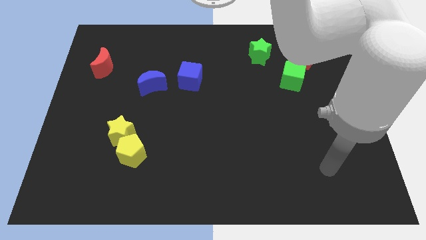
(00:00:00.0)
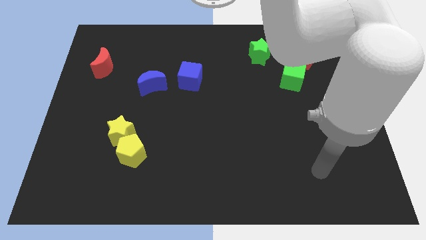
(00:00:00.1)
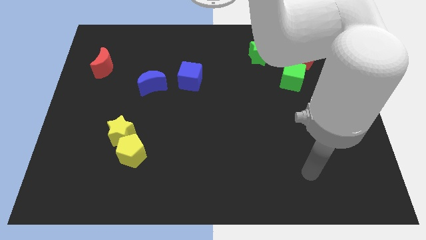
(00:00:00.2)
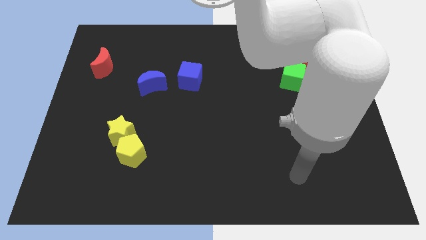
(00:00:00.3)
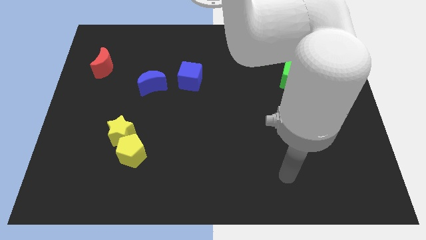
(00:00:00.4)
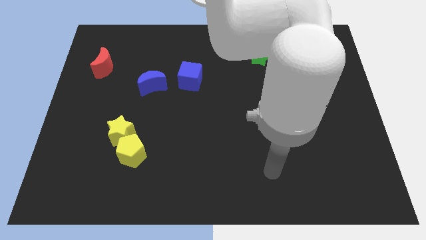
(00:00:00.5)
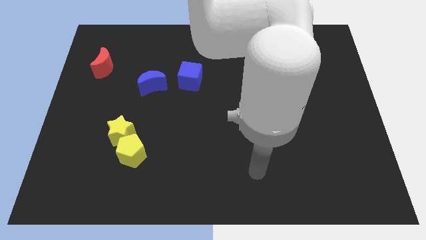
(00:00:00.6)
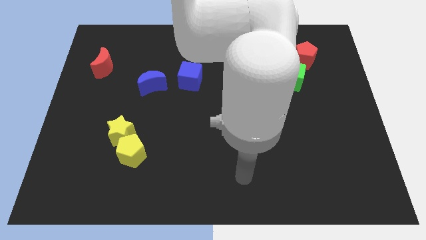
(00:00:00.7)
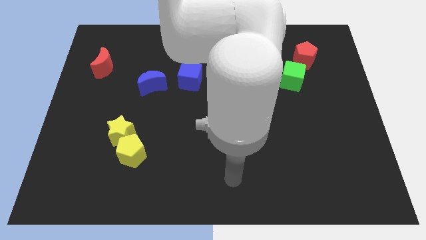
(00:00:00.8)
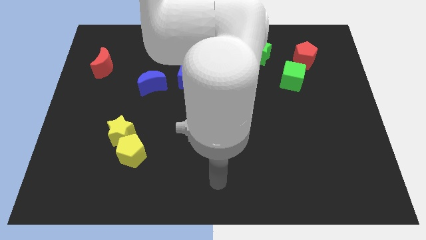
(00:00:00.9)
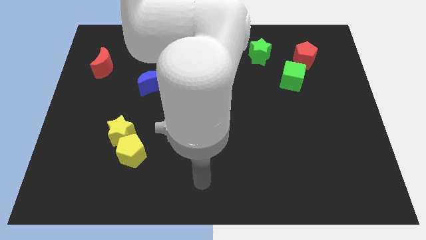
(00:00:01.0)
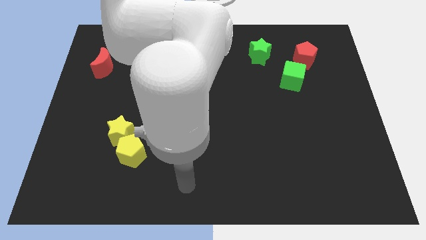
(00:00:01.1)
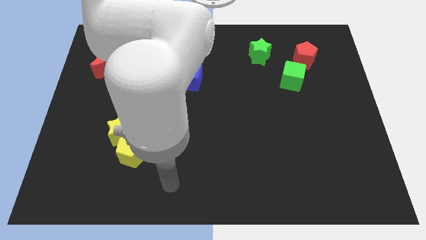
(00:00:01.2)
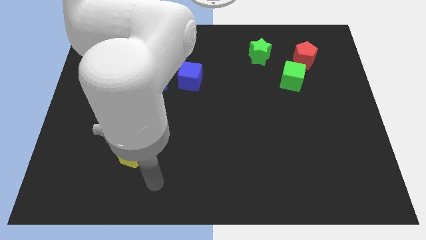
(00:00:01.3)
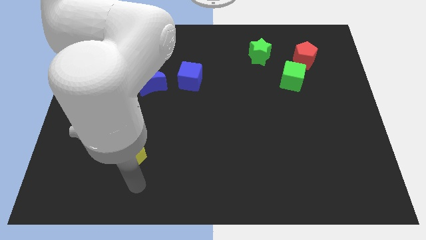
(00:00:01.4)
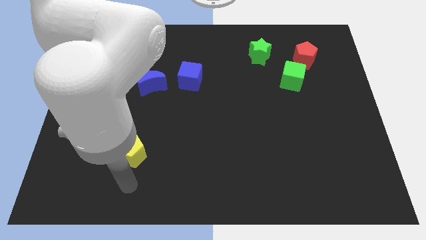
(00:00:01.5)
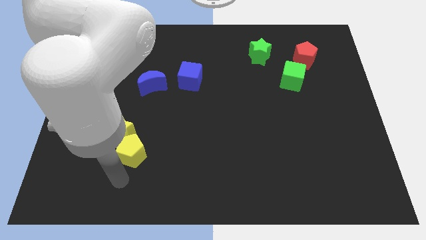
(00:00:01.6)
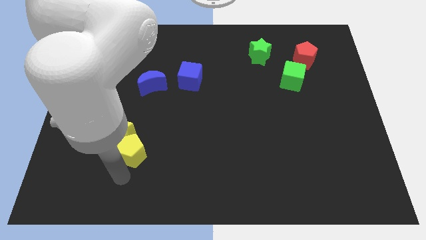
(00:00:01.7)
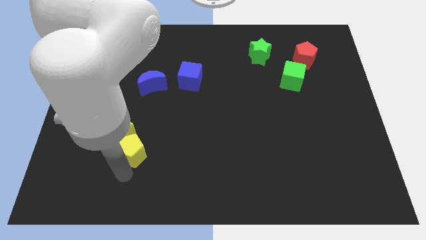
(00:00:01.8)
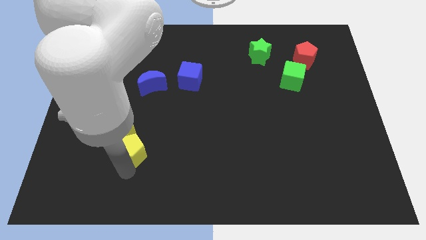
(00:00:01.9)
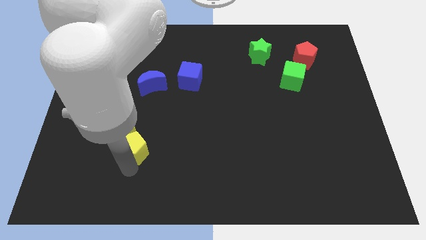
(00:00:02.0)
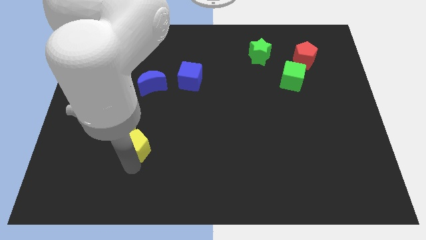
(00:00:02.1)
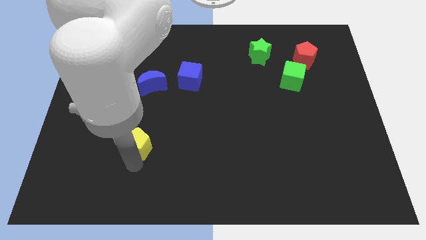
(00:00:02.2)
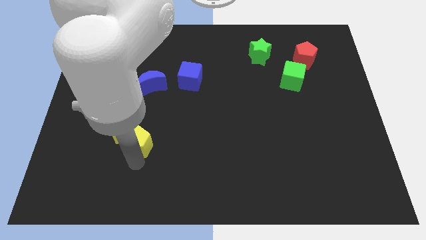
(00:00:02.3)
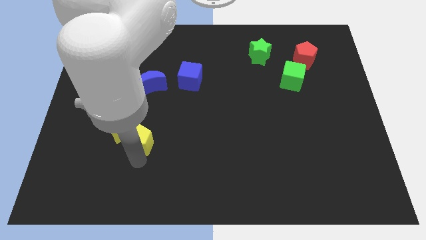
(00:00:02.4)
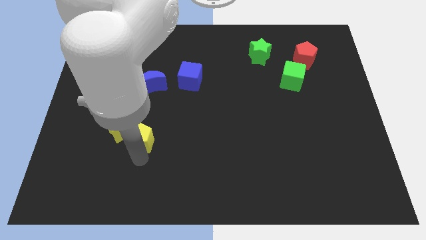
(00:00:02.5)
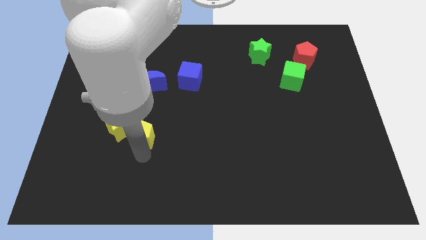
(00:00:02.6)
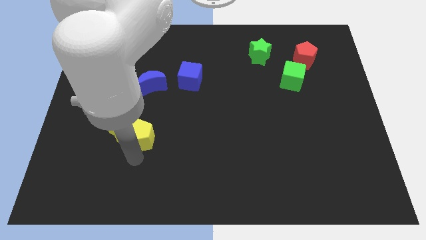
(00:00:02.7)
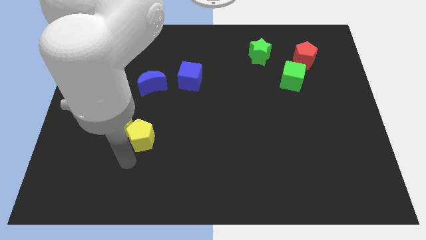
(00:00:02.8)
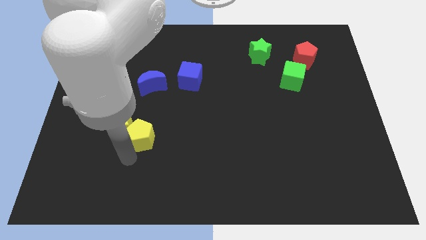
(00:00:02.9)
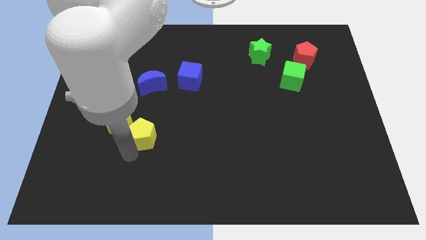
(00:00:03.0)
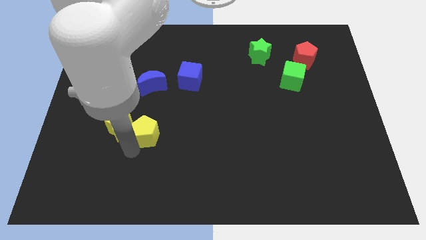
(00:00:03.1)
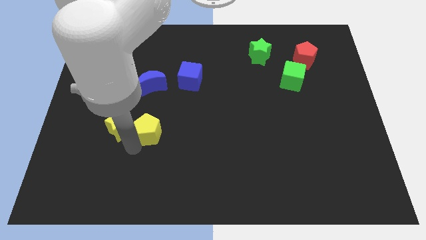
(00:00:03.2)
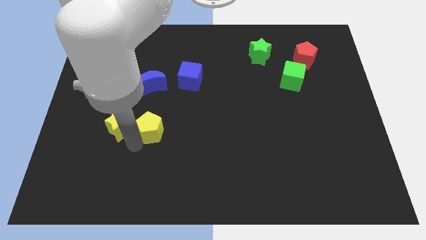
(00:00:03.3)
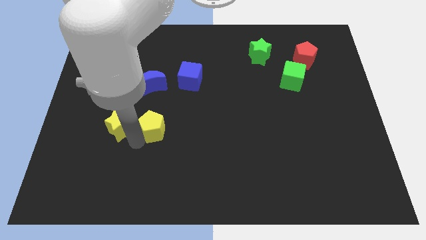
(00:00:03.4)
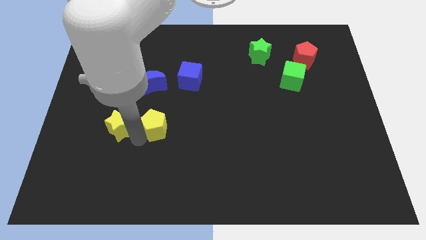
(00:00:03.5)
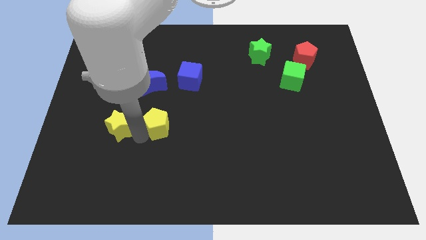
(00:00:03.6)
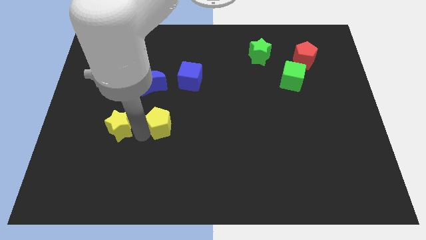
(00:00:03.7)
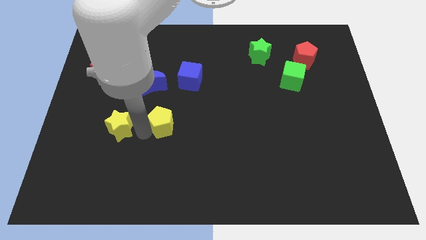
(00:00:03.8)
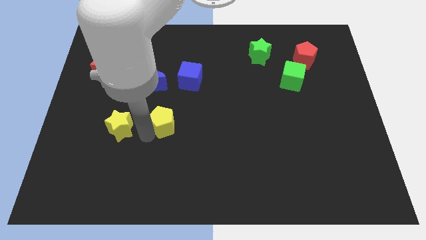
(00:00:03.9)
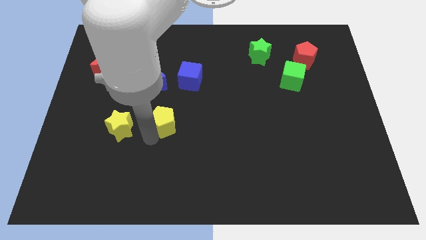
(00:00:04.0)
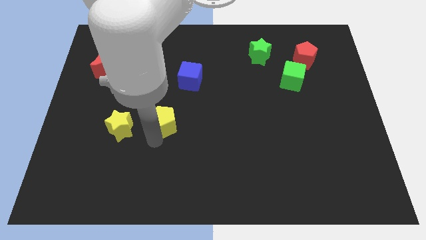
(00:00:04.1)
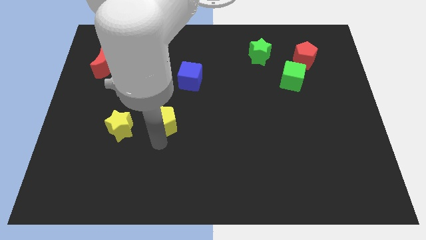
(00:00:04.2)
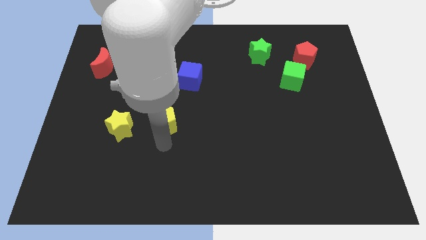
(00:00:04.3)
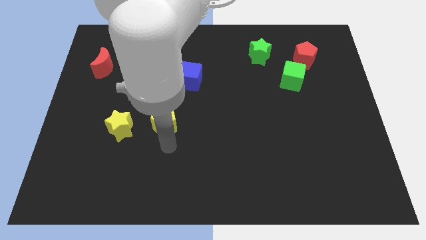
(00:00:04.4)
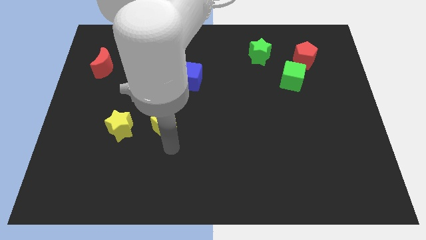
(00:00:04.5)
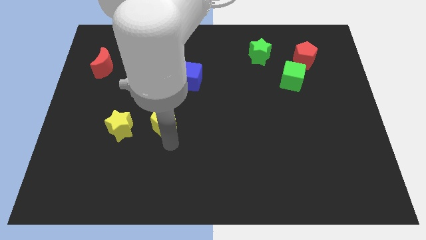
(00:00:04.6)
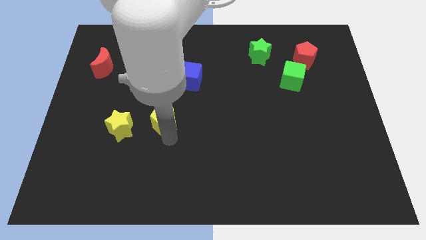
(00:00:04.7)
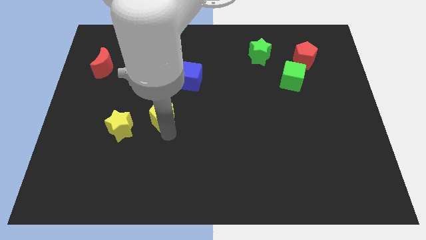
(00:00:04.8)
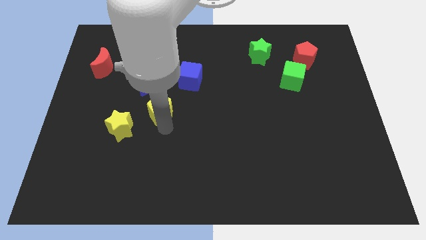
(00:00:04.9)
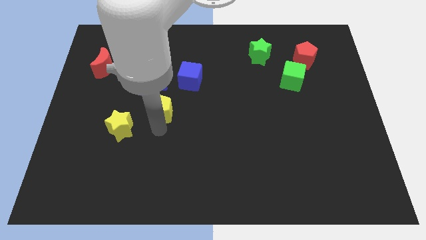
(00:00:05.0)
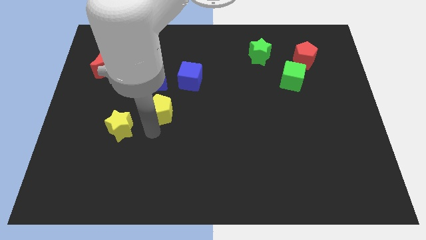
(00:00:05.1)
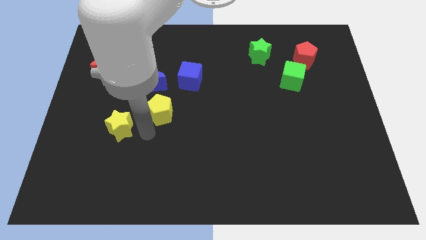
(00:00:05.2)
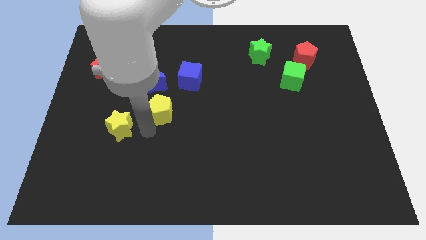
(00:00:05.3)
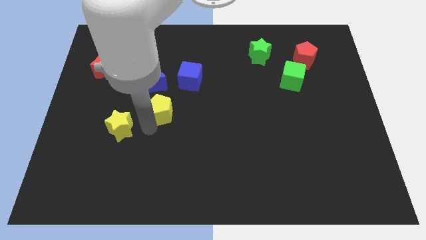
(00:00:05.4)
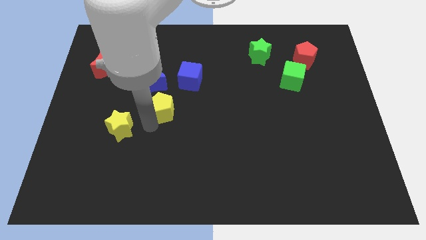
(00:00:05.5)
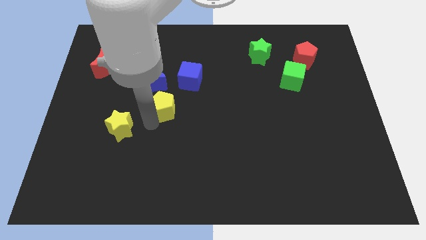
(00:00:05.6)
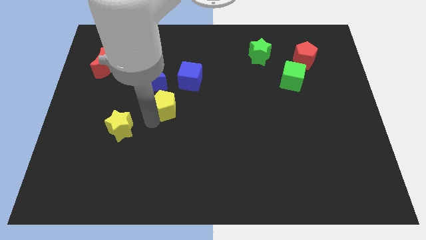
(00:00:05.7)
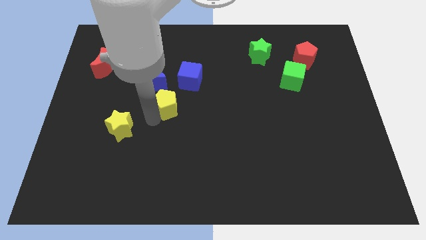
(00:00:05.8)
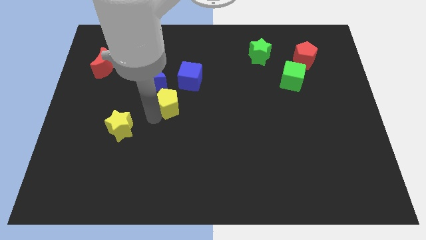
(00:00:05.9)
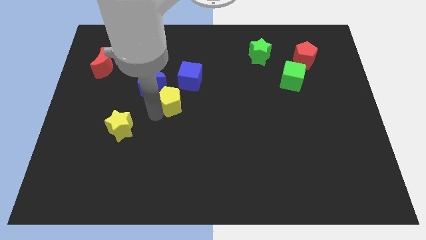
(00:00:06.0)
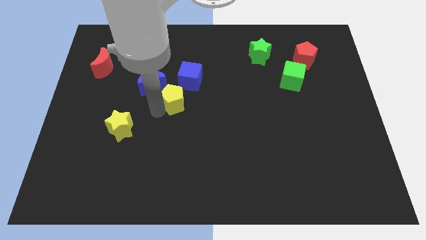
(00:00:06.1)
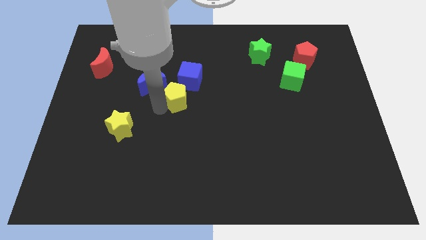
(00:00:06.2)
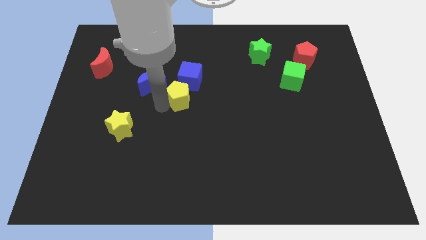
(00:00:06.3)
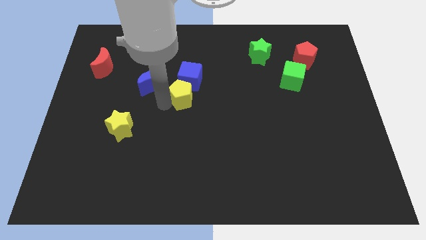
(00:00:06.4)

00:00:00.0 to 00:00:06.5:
push the yellow pentagon close to the blue cube

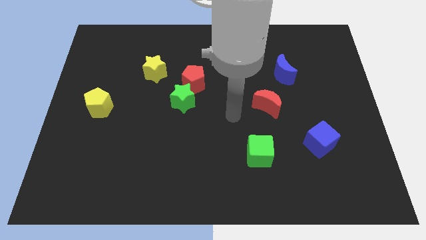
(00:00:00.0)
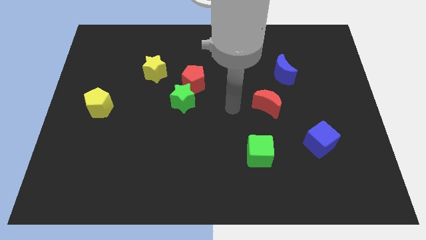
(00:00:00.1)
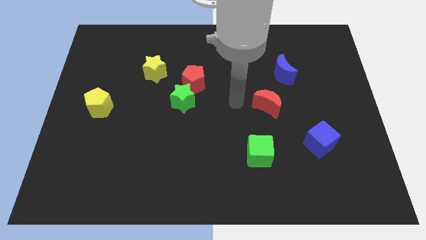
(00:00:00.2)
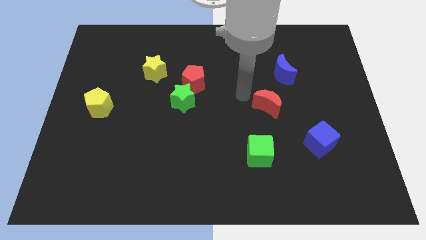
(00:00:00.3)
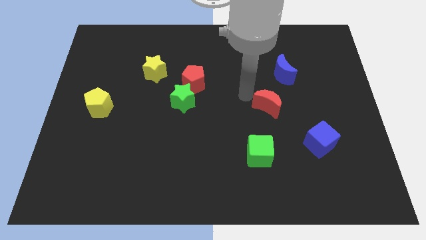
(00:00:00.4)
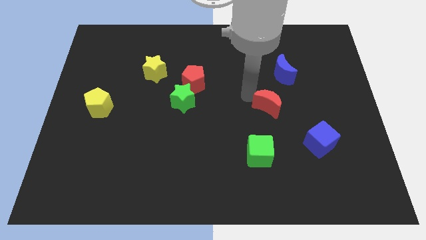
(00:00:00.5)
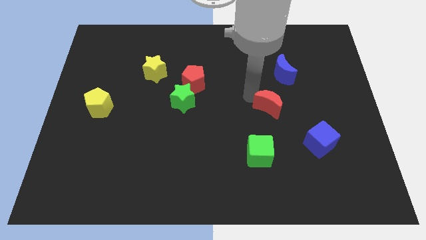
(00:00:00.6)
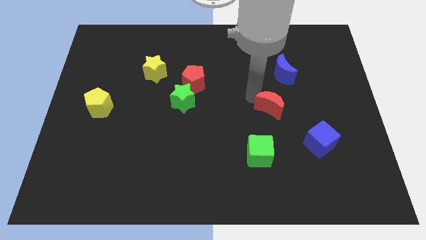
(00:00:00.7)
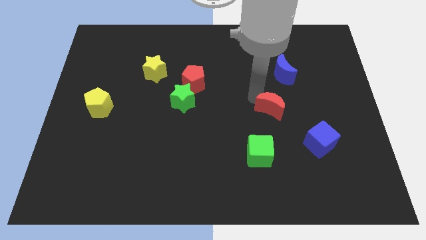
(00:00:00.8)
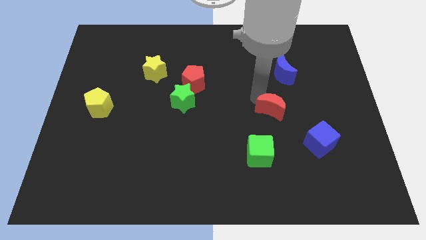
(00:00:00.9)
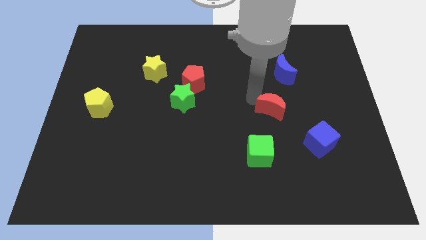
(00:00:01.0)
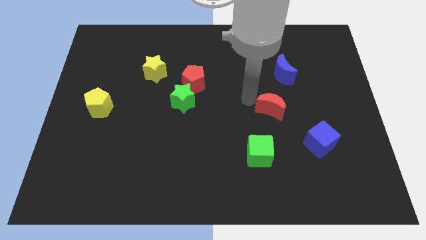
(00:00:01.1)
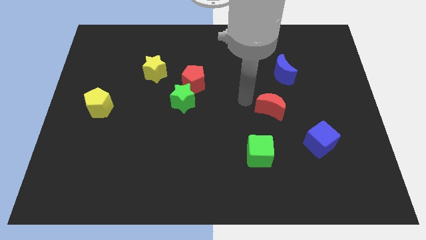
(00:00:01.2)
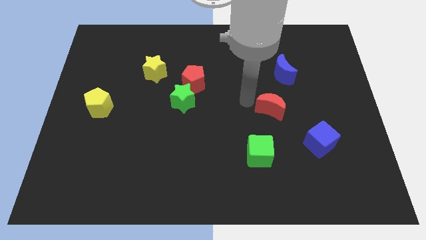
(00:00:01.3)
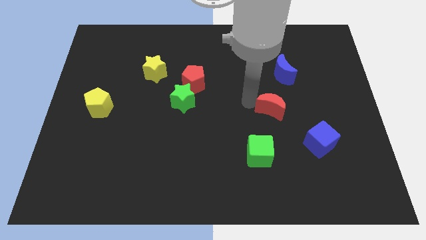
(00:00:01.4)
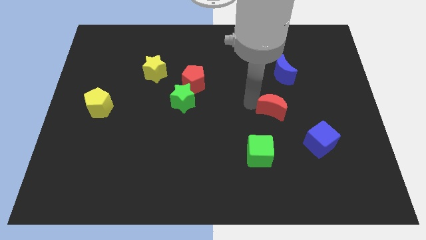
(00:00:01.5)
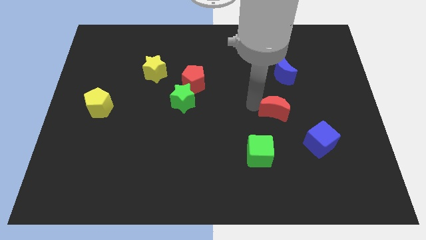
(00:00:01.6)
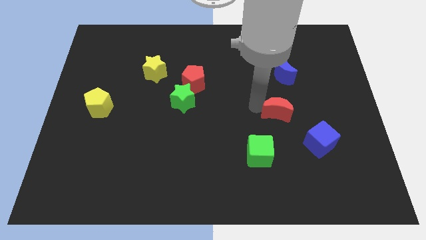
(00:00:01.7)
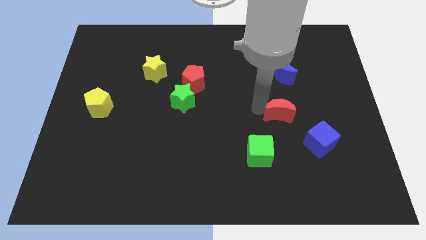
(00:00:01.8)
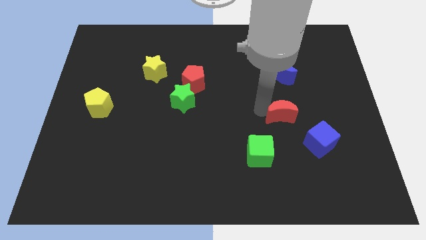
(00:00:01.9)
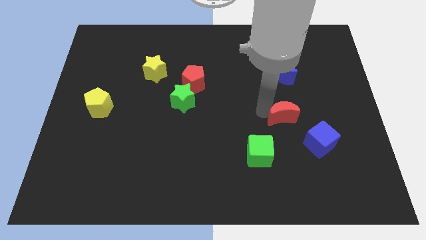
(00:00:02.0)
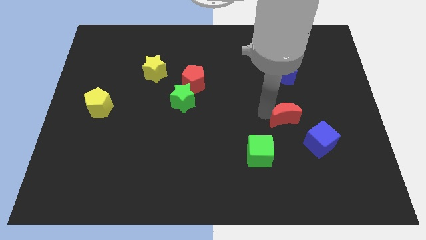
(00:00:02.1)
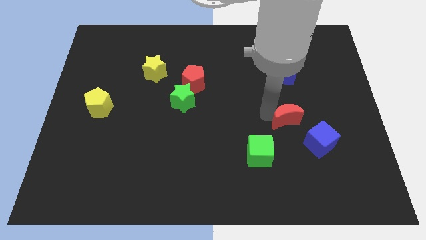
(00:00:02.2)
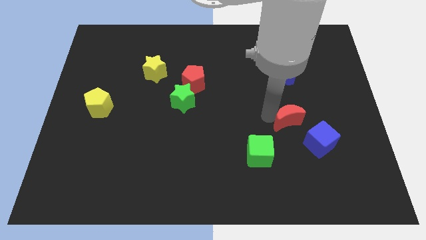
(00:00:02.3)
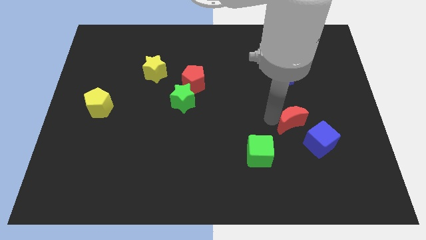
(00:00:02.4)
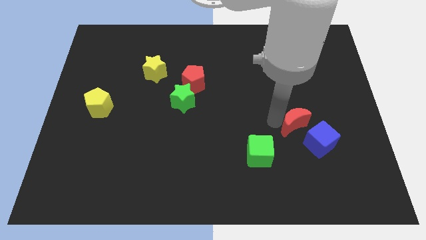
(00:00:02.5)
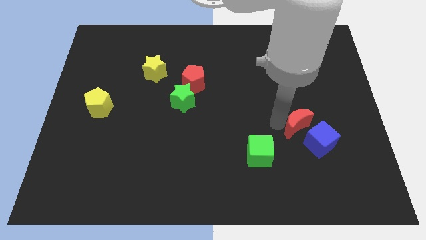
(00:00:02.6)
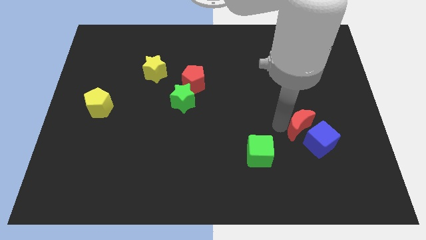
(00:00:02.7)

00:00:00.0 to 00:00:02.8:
move the red moon towards the blue cube
